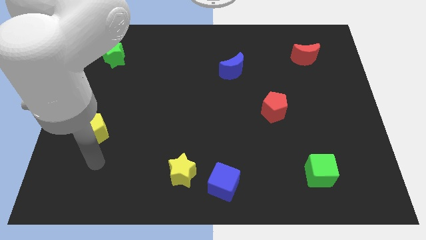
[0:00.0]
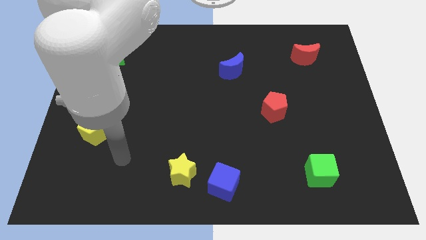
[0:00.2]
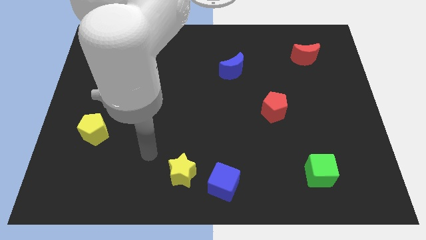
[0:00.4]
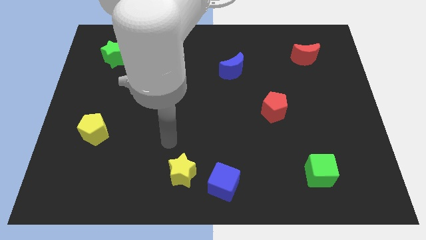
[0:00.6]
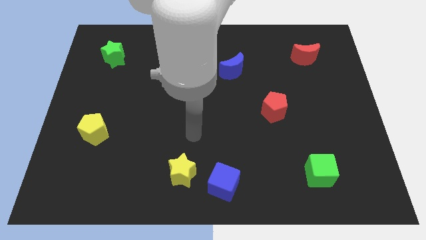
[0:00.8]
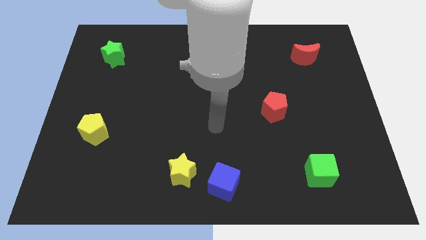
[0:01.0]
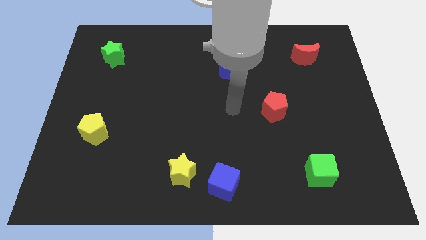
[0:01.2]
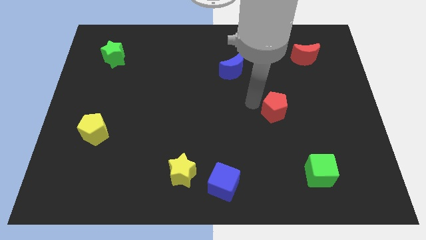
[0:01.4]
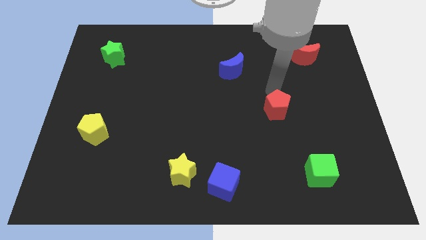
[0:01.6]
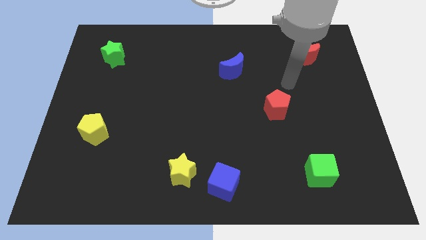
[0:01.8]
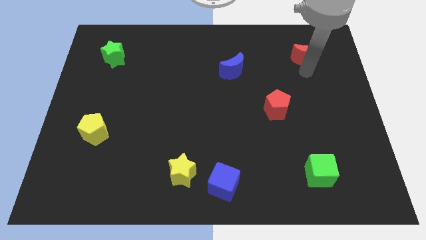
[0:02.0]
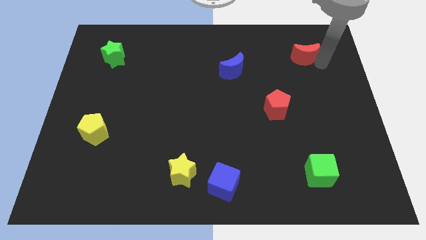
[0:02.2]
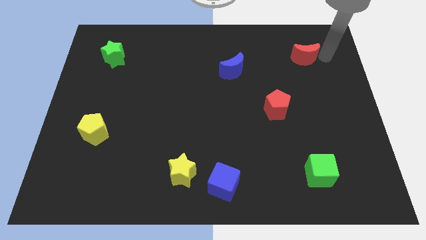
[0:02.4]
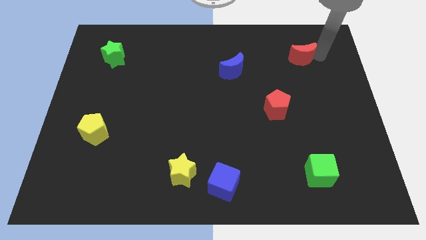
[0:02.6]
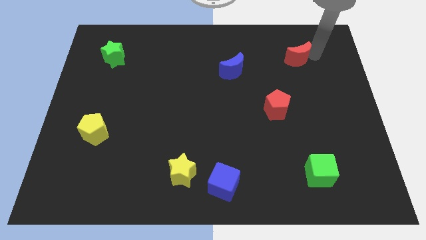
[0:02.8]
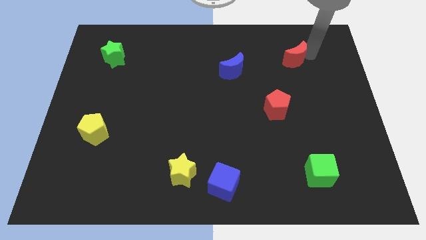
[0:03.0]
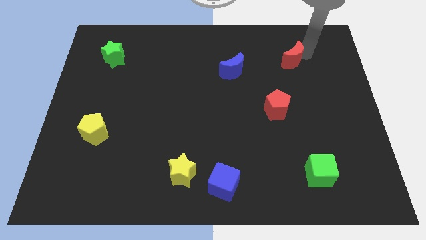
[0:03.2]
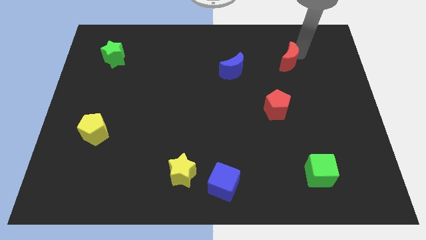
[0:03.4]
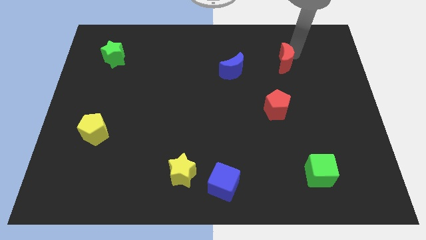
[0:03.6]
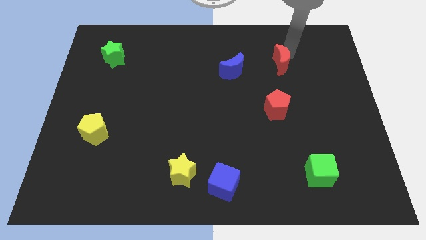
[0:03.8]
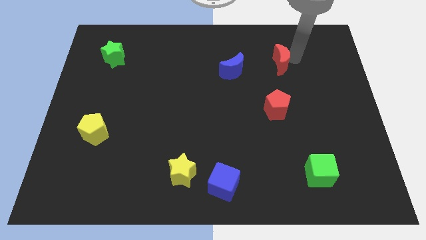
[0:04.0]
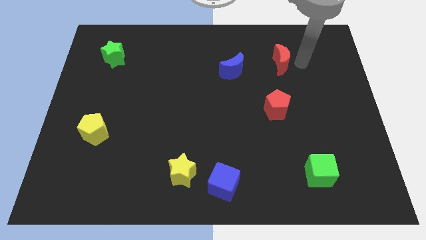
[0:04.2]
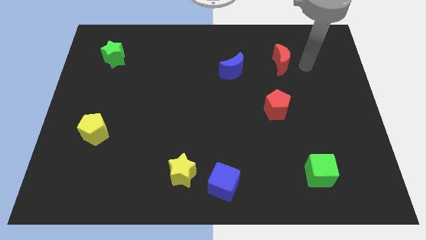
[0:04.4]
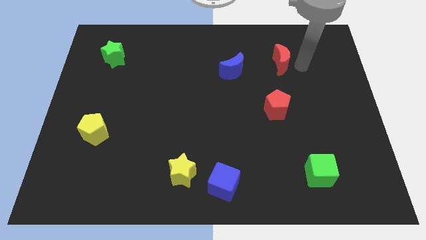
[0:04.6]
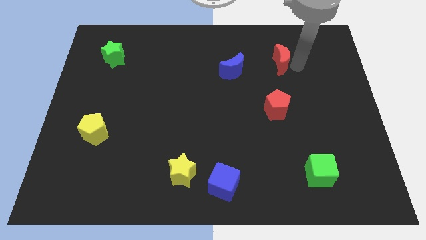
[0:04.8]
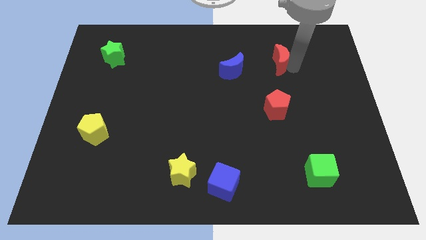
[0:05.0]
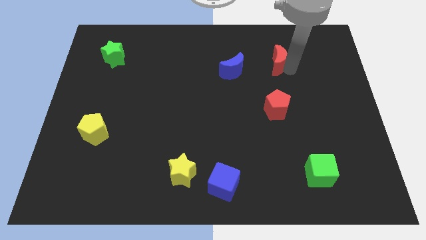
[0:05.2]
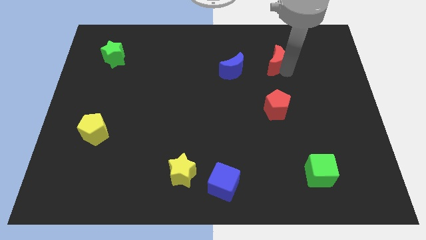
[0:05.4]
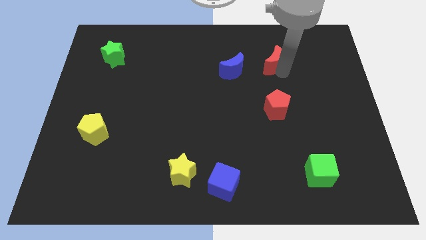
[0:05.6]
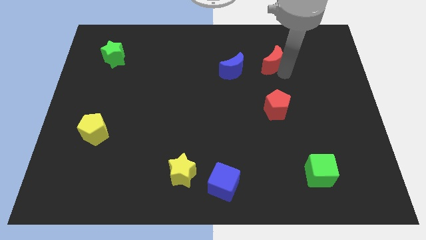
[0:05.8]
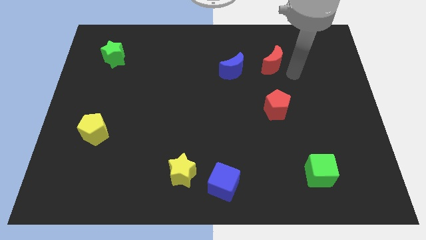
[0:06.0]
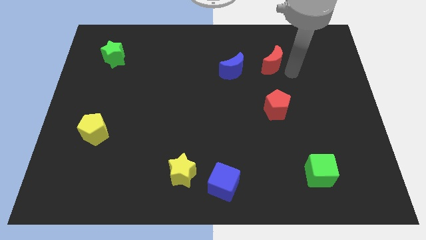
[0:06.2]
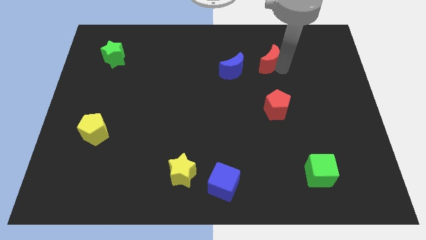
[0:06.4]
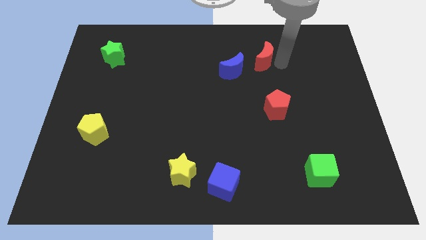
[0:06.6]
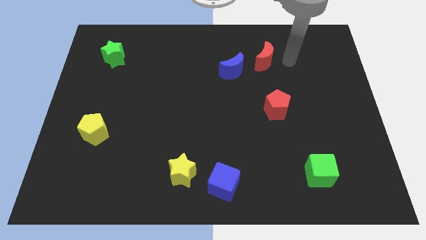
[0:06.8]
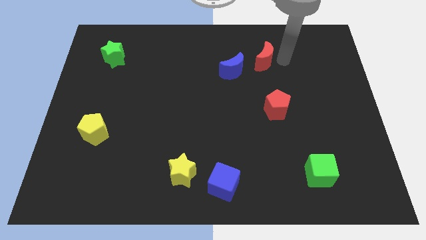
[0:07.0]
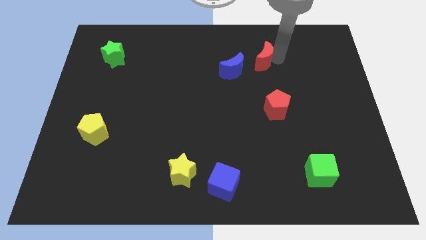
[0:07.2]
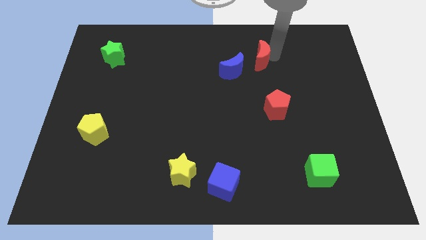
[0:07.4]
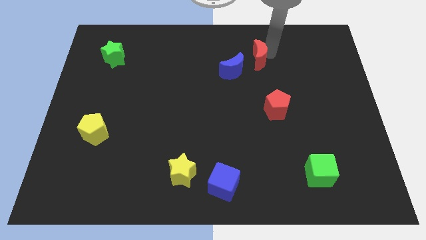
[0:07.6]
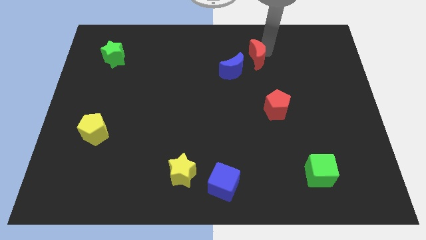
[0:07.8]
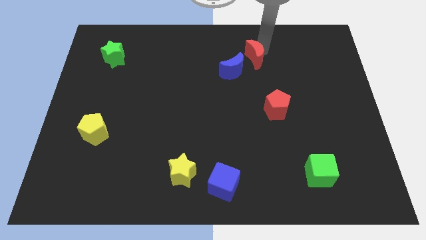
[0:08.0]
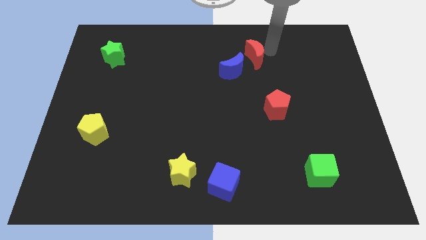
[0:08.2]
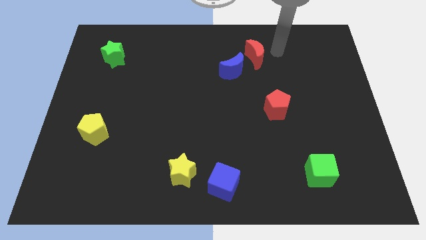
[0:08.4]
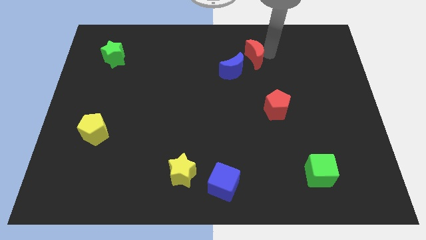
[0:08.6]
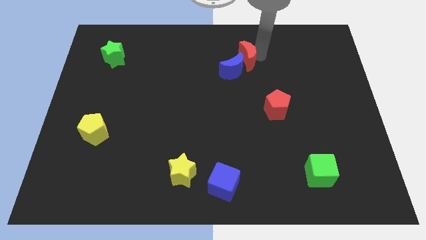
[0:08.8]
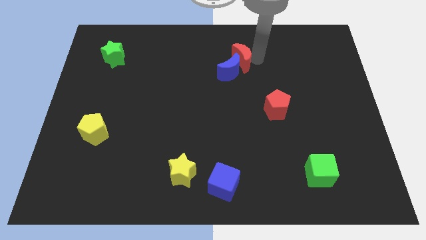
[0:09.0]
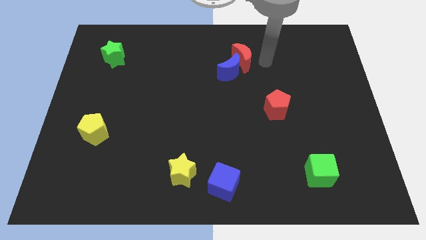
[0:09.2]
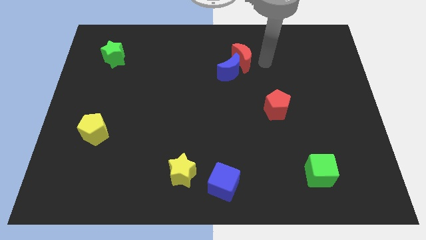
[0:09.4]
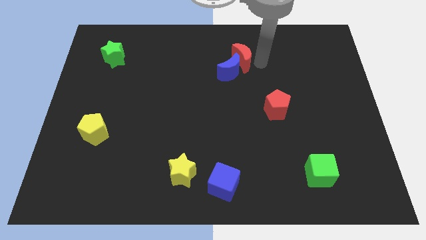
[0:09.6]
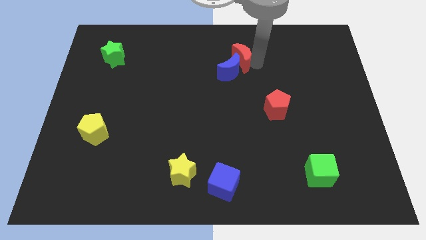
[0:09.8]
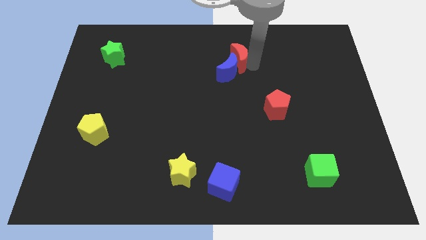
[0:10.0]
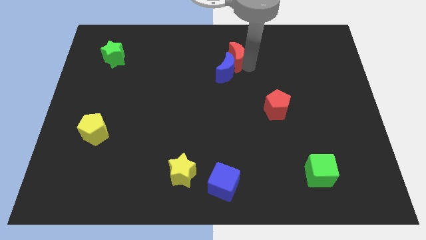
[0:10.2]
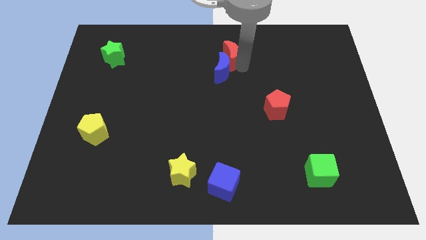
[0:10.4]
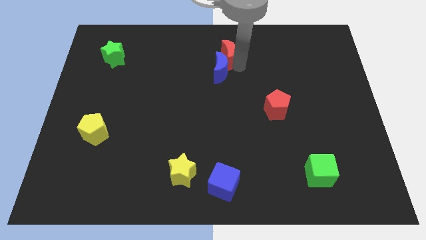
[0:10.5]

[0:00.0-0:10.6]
move the red moon to the left

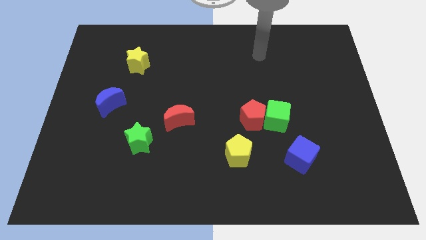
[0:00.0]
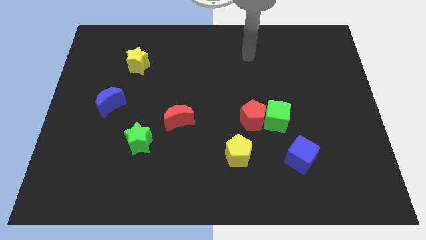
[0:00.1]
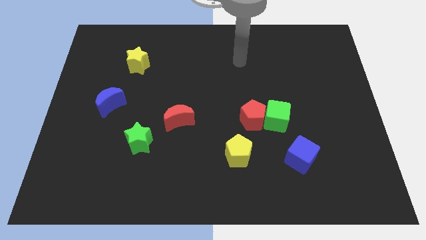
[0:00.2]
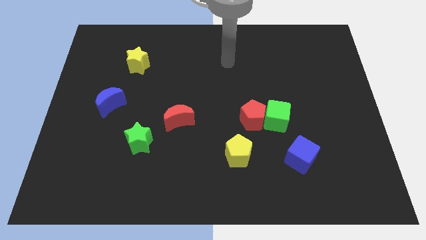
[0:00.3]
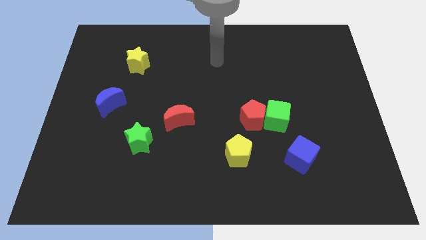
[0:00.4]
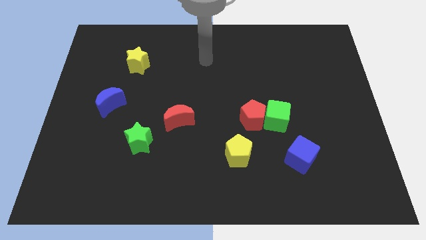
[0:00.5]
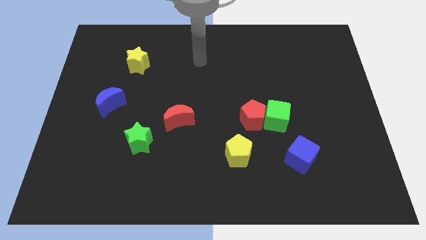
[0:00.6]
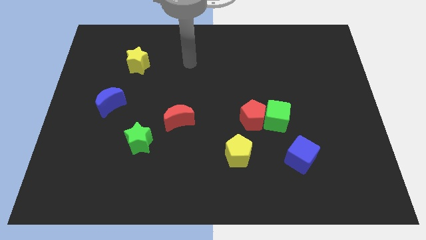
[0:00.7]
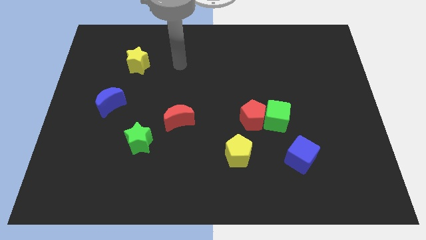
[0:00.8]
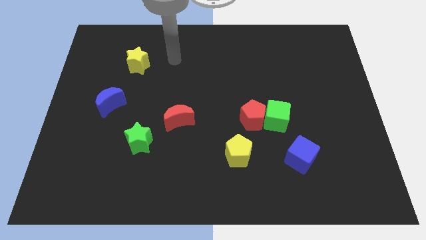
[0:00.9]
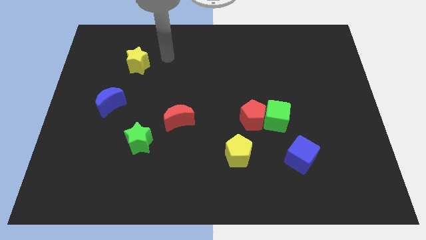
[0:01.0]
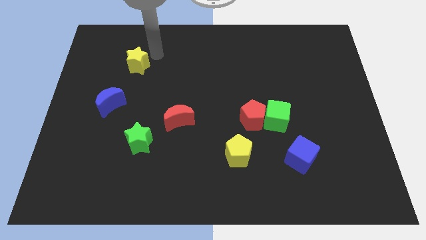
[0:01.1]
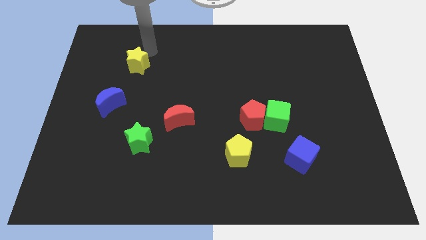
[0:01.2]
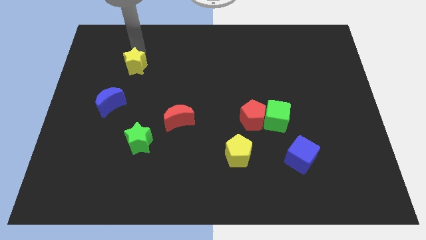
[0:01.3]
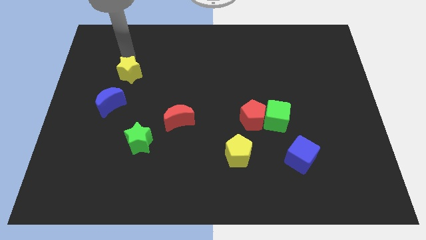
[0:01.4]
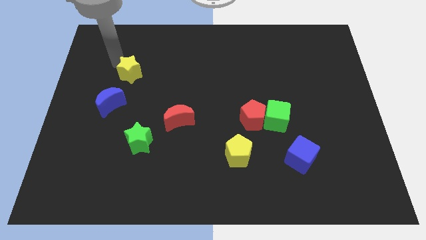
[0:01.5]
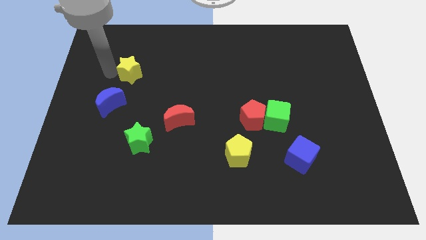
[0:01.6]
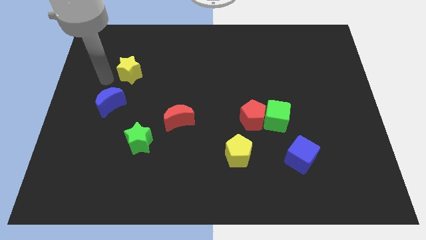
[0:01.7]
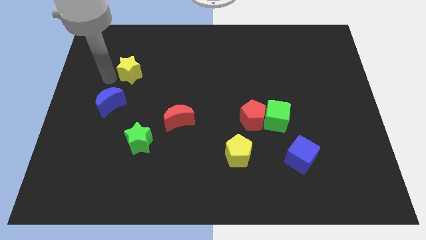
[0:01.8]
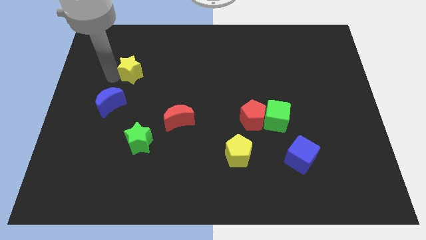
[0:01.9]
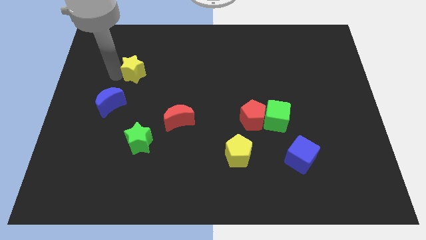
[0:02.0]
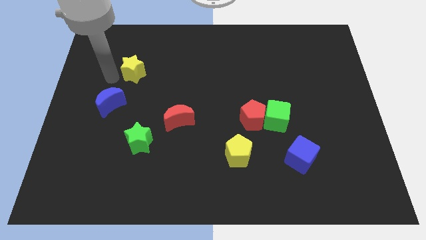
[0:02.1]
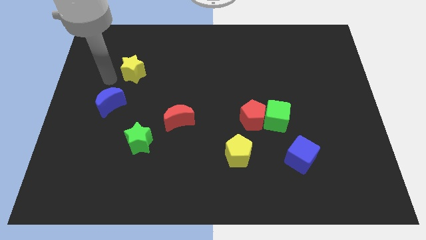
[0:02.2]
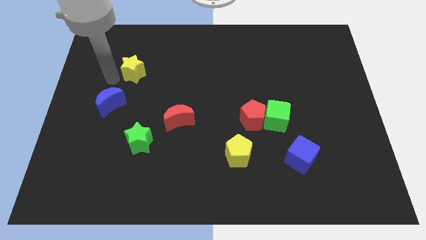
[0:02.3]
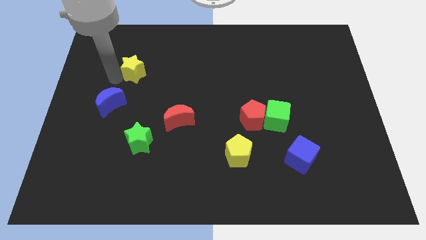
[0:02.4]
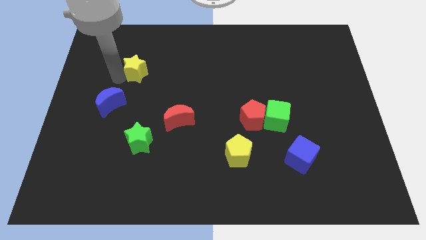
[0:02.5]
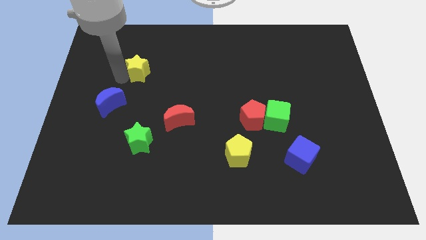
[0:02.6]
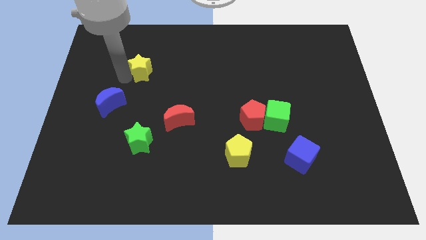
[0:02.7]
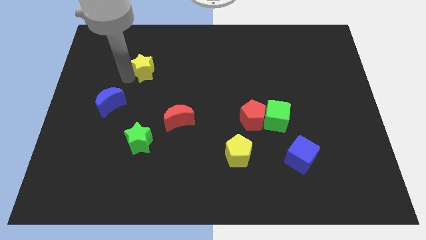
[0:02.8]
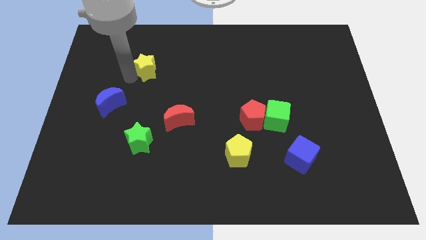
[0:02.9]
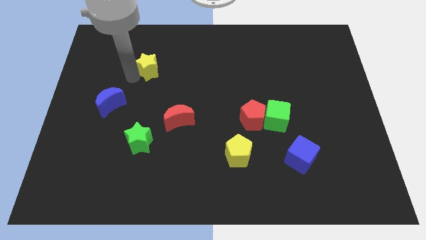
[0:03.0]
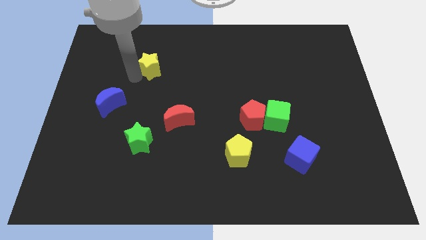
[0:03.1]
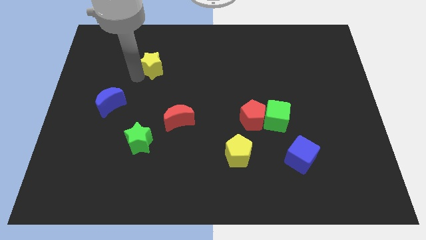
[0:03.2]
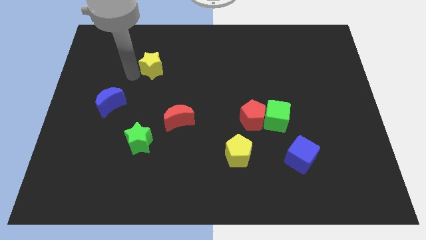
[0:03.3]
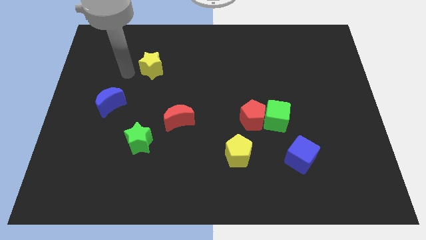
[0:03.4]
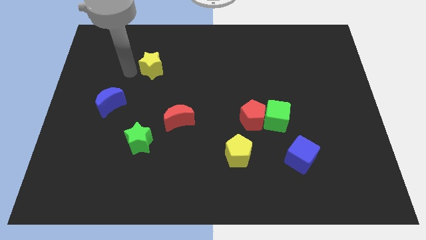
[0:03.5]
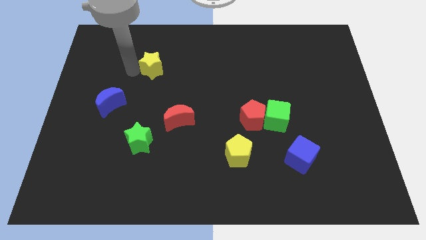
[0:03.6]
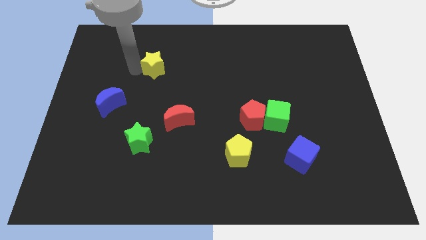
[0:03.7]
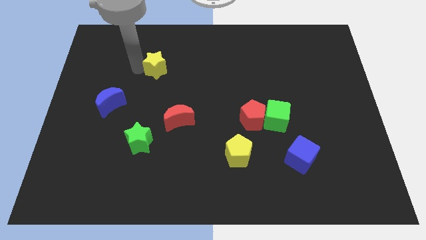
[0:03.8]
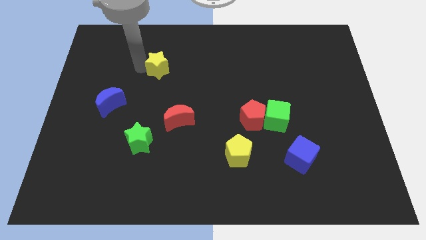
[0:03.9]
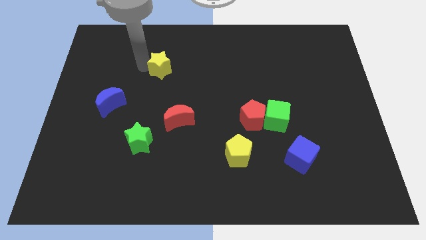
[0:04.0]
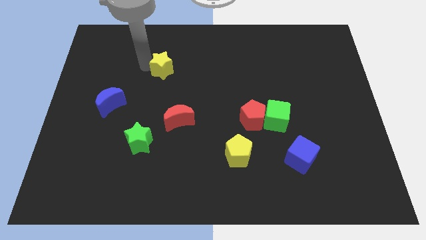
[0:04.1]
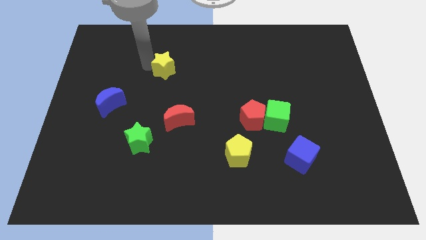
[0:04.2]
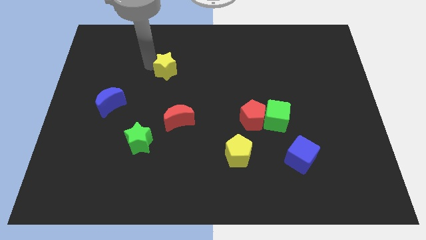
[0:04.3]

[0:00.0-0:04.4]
move the yellow star to the right a little bit
